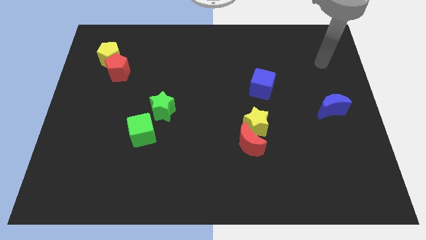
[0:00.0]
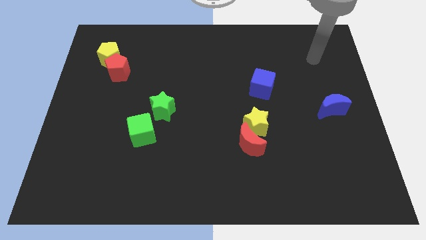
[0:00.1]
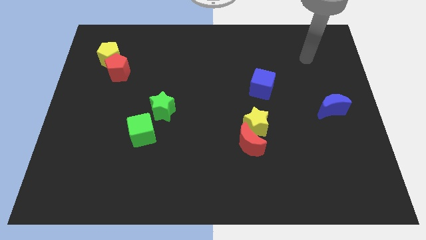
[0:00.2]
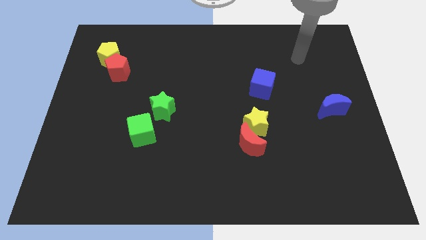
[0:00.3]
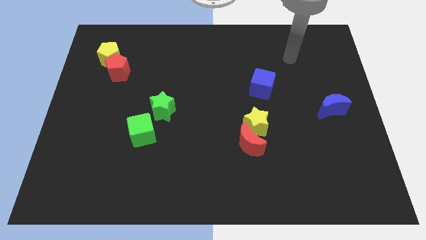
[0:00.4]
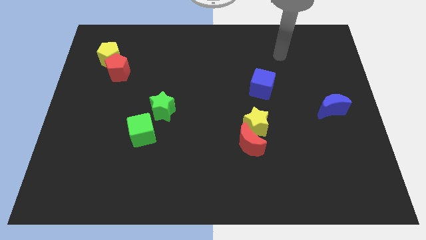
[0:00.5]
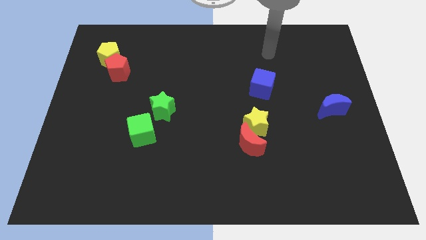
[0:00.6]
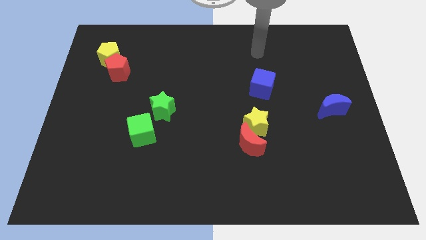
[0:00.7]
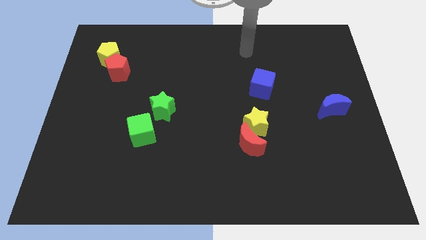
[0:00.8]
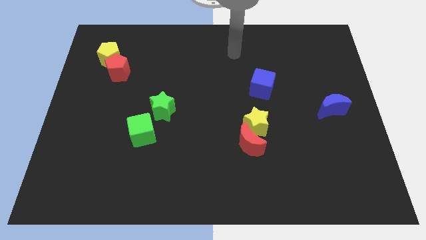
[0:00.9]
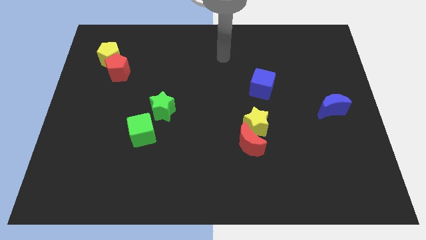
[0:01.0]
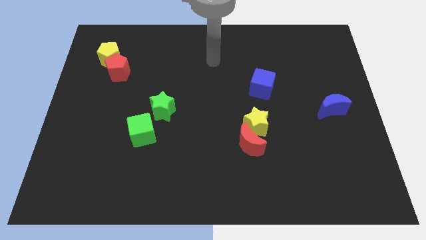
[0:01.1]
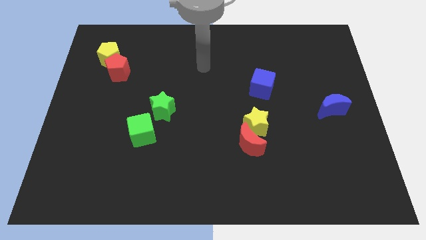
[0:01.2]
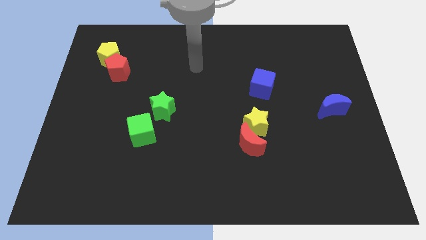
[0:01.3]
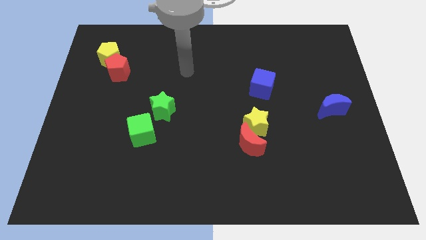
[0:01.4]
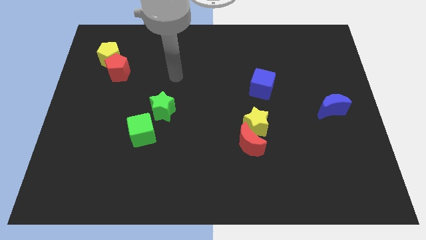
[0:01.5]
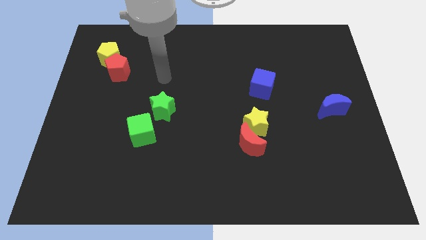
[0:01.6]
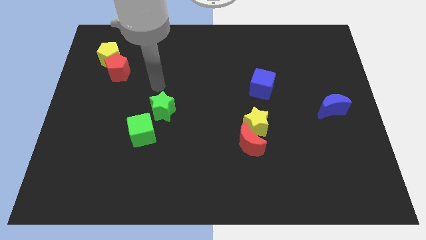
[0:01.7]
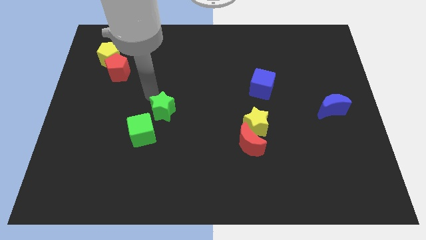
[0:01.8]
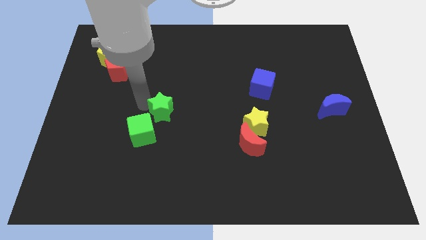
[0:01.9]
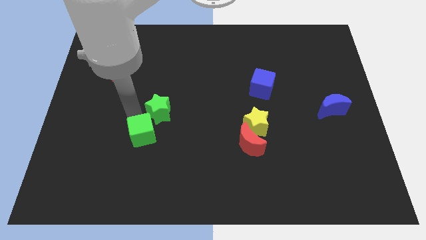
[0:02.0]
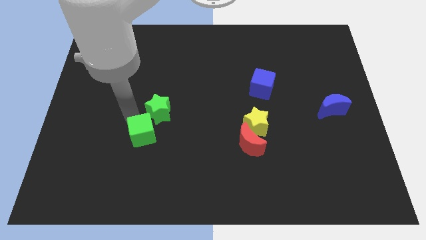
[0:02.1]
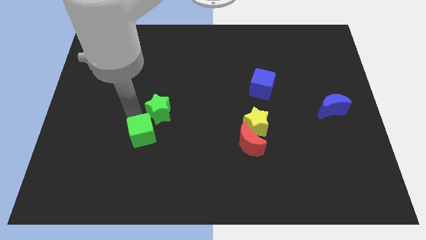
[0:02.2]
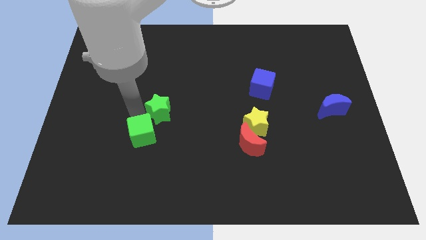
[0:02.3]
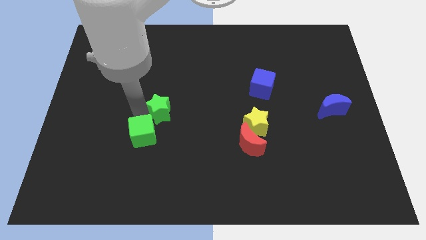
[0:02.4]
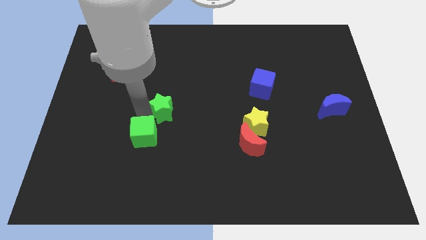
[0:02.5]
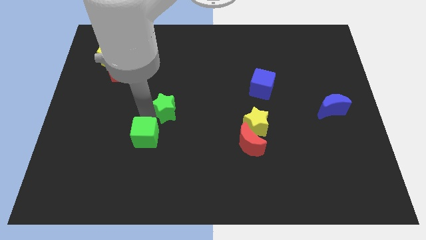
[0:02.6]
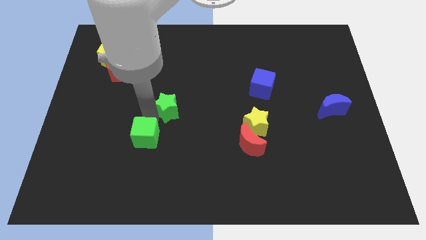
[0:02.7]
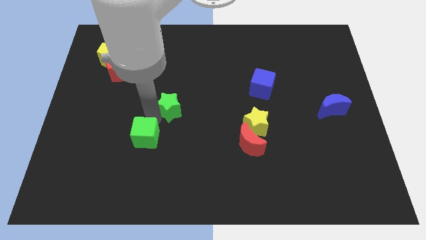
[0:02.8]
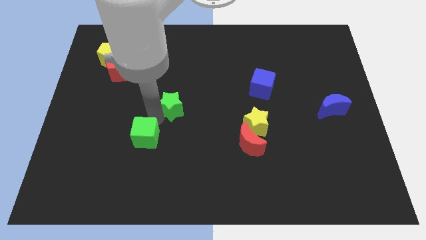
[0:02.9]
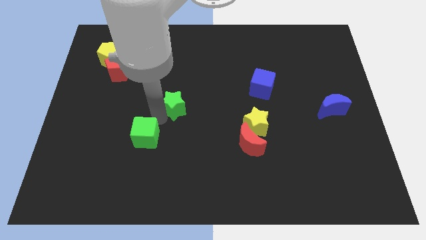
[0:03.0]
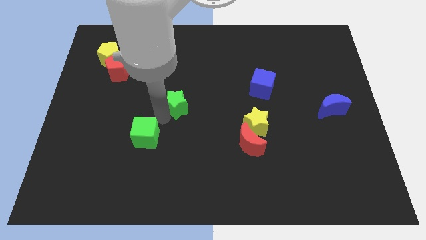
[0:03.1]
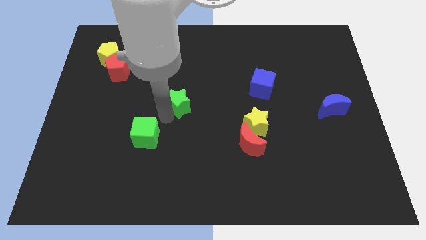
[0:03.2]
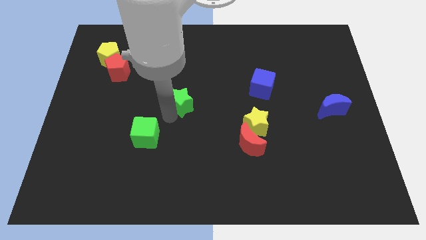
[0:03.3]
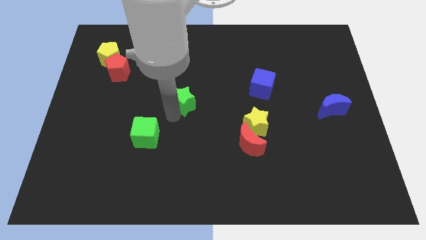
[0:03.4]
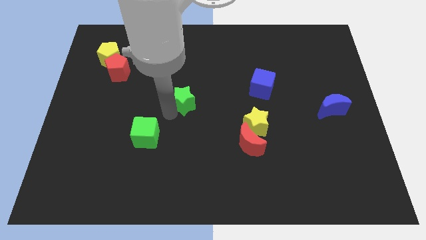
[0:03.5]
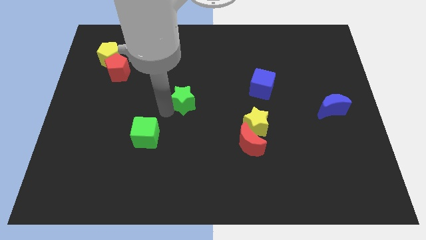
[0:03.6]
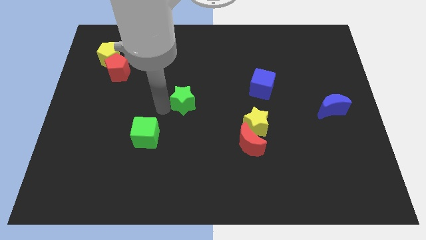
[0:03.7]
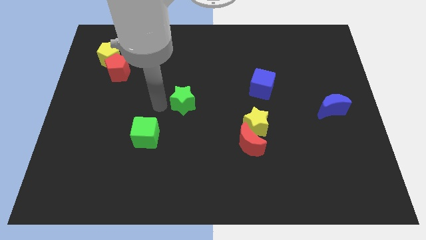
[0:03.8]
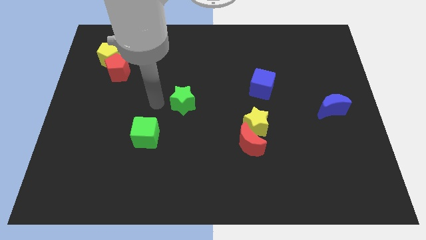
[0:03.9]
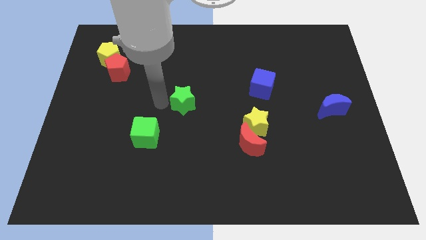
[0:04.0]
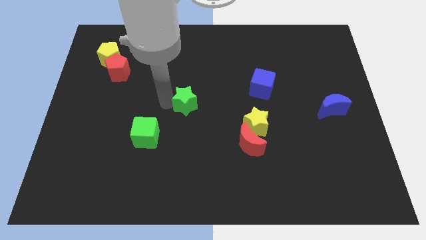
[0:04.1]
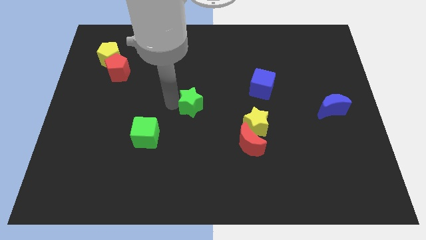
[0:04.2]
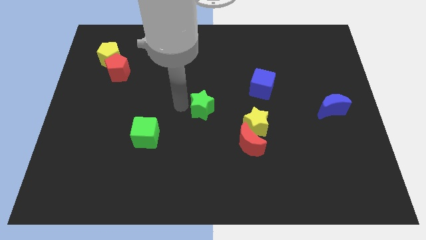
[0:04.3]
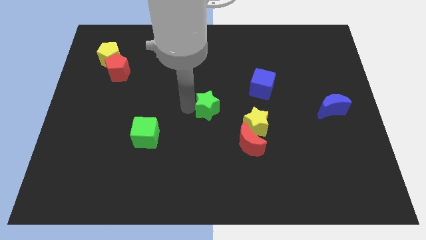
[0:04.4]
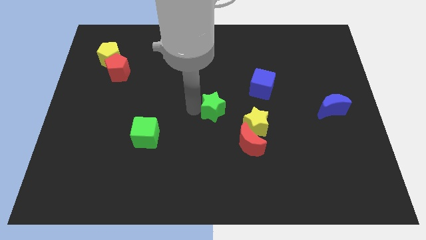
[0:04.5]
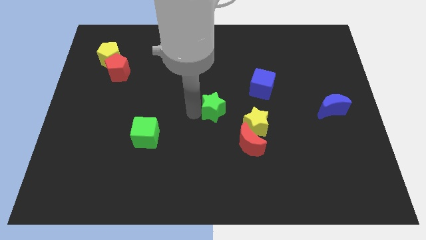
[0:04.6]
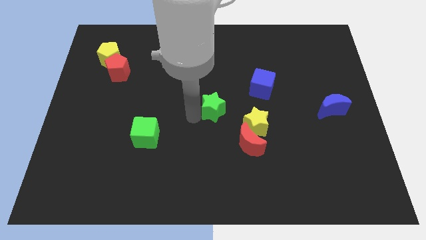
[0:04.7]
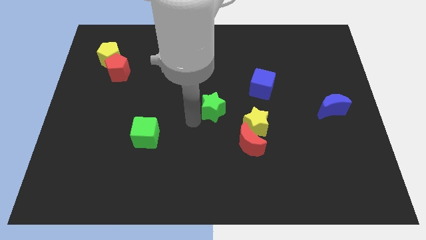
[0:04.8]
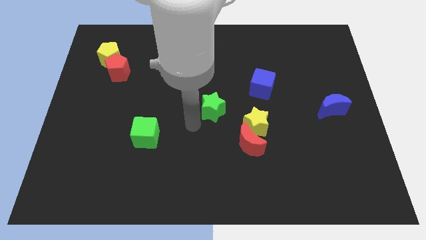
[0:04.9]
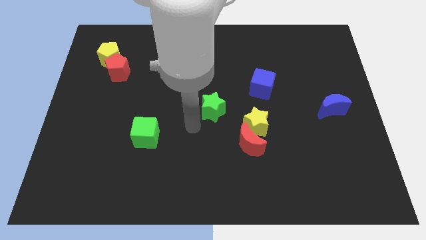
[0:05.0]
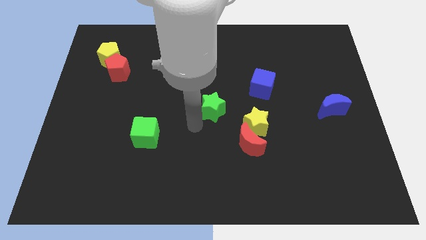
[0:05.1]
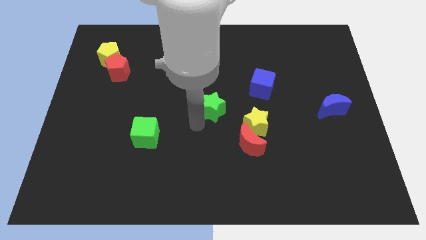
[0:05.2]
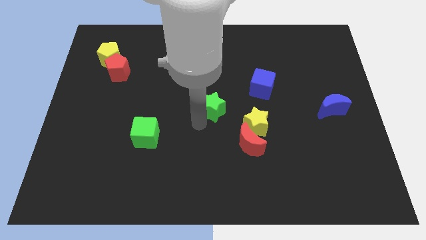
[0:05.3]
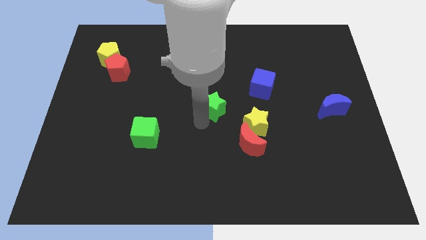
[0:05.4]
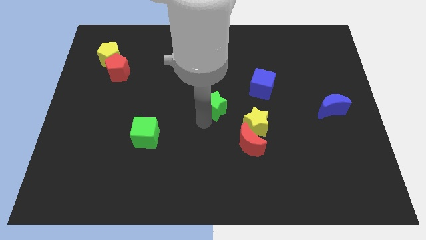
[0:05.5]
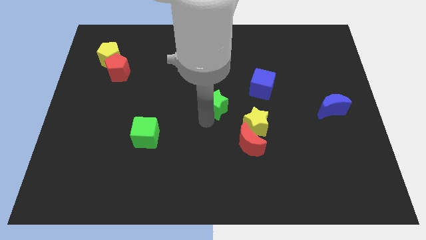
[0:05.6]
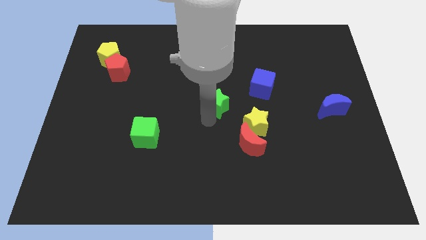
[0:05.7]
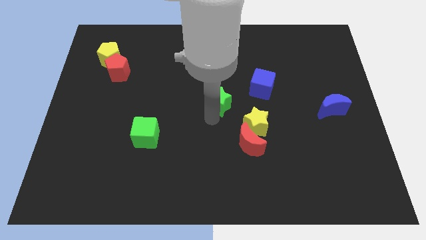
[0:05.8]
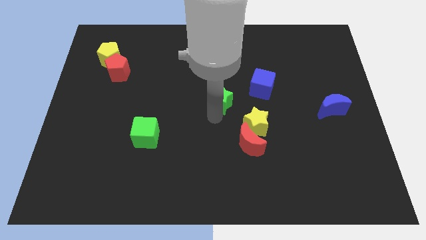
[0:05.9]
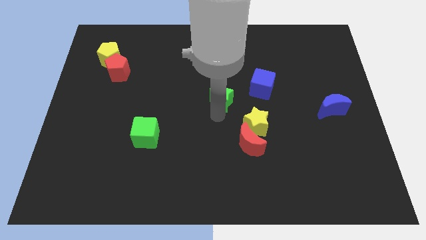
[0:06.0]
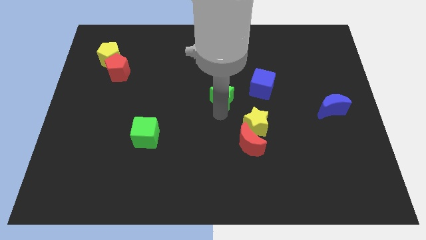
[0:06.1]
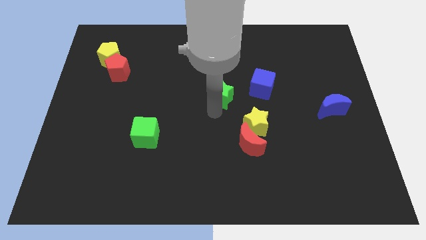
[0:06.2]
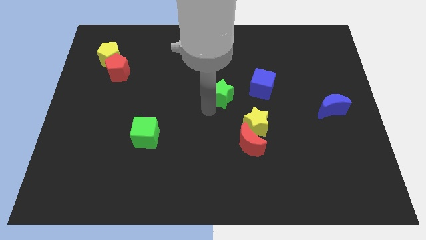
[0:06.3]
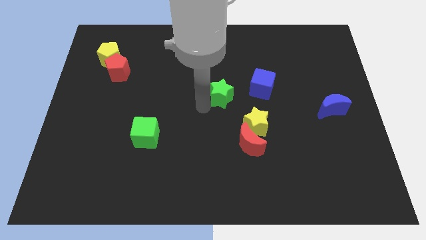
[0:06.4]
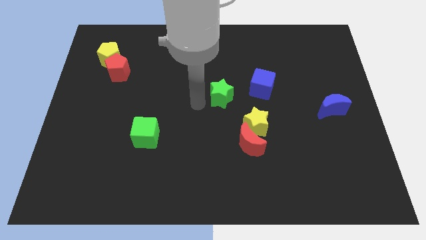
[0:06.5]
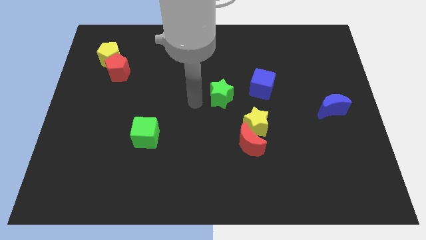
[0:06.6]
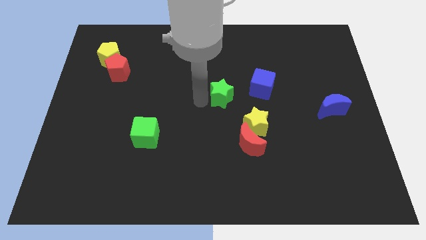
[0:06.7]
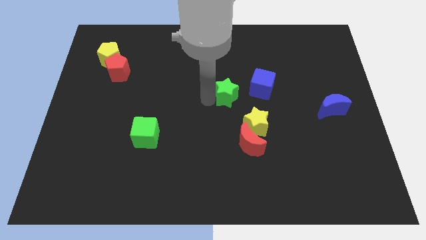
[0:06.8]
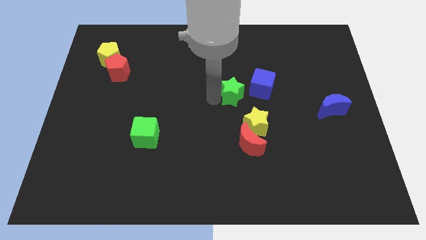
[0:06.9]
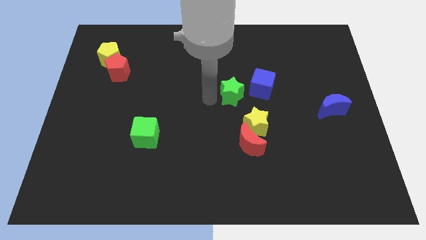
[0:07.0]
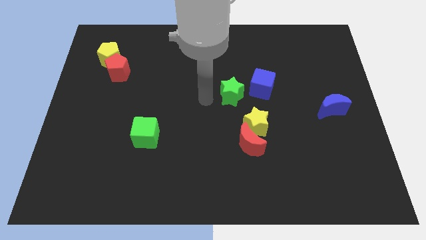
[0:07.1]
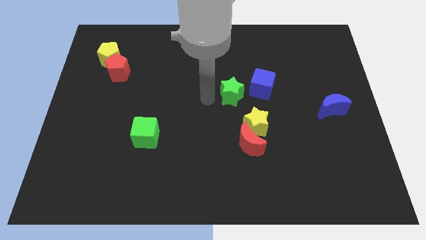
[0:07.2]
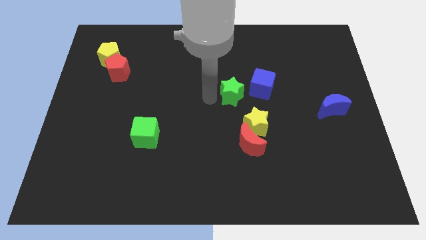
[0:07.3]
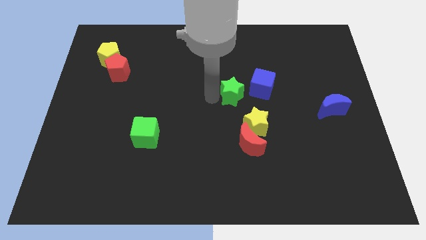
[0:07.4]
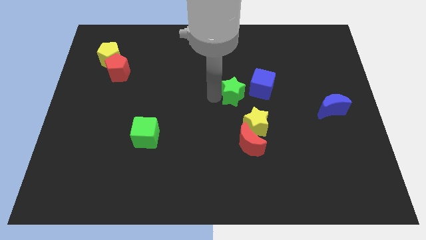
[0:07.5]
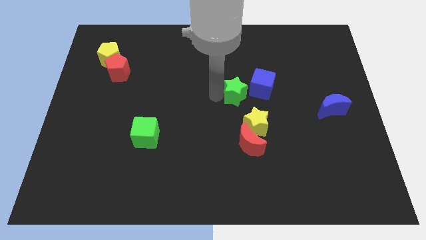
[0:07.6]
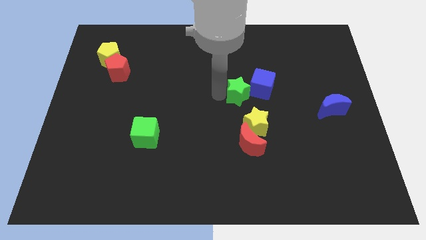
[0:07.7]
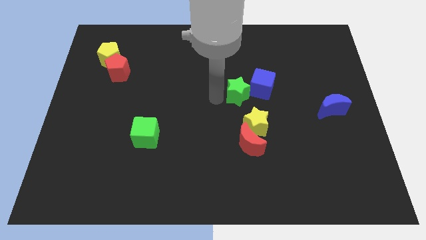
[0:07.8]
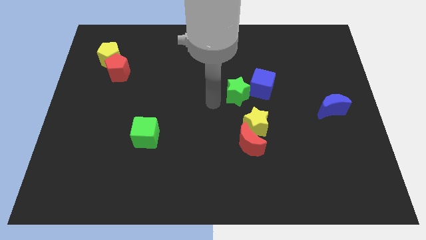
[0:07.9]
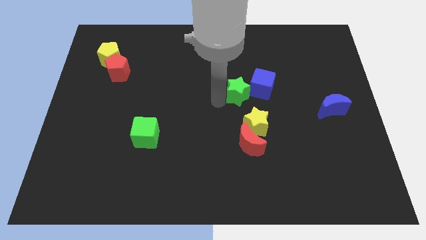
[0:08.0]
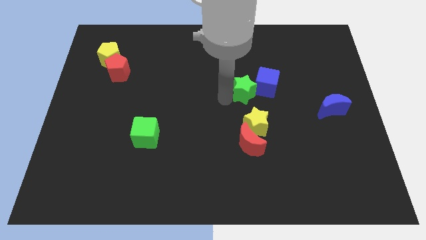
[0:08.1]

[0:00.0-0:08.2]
push the green star towards the blue cube
